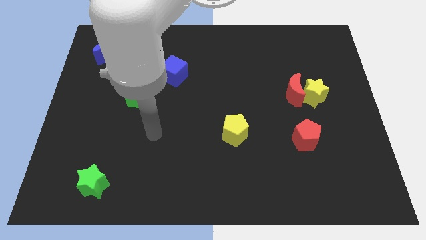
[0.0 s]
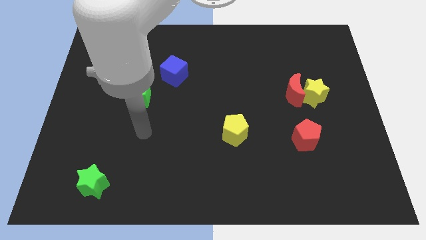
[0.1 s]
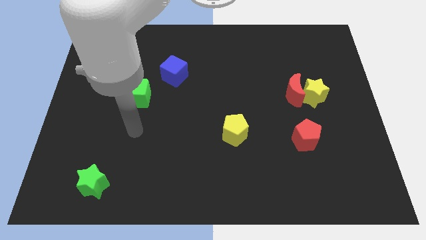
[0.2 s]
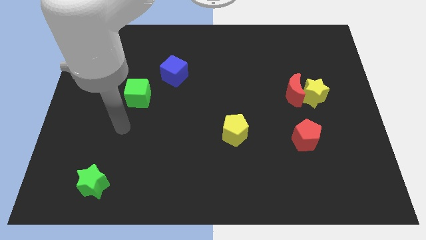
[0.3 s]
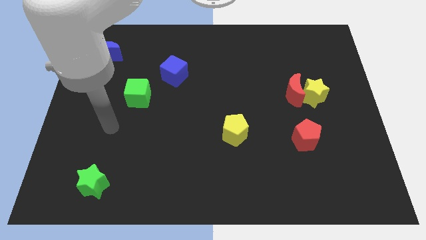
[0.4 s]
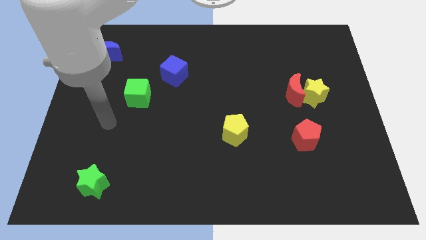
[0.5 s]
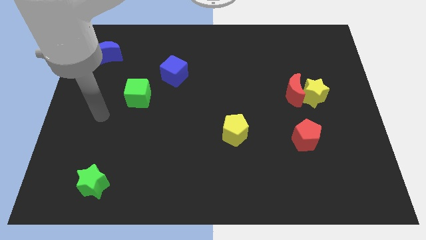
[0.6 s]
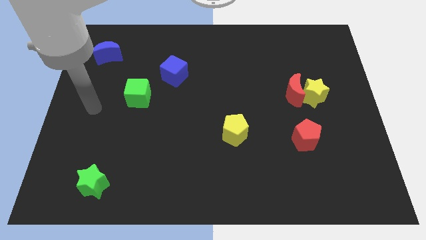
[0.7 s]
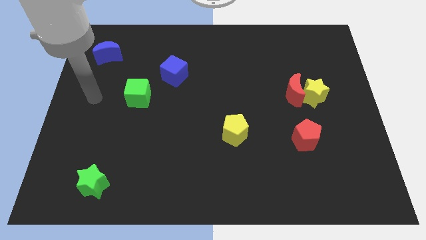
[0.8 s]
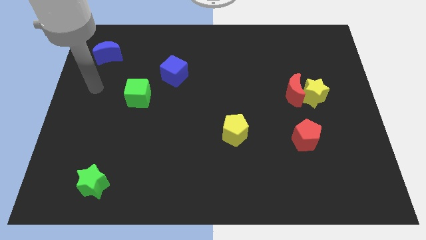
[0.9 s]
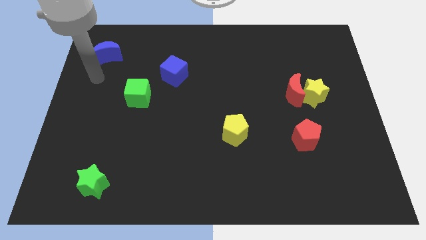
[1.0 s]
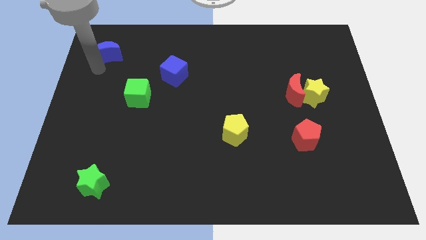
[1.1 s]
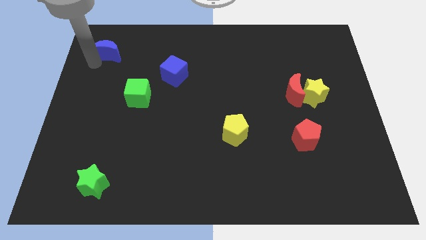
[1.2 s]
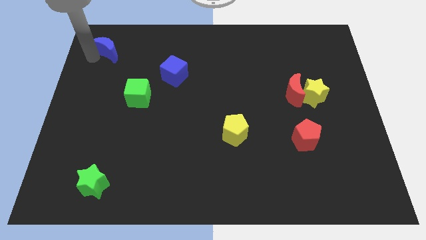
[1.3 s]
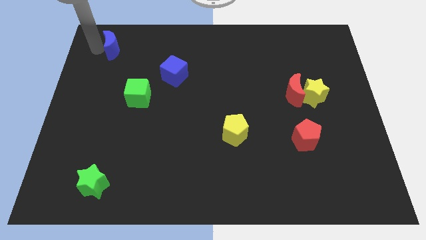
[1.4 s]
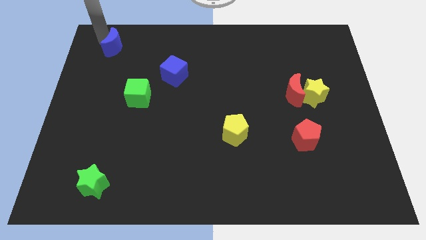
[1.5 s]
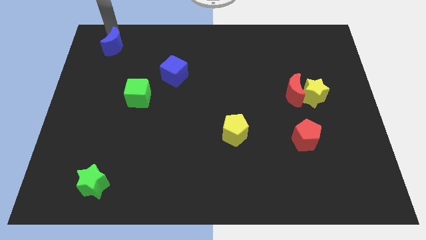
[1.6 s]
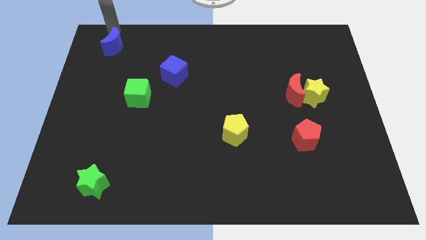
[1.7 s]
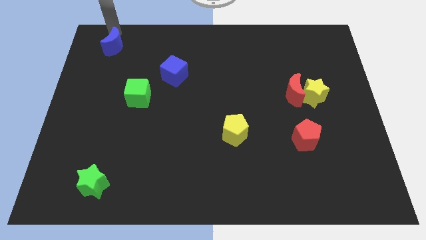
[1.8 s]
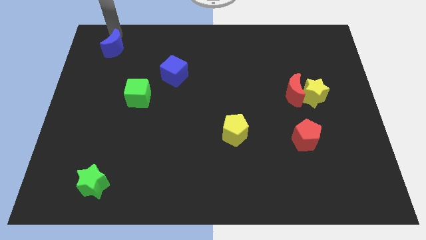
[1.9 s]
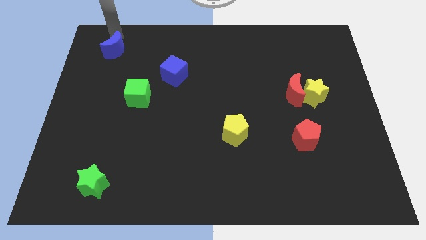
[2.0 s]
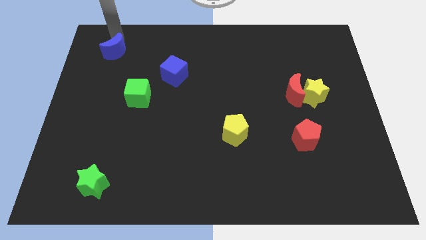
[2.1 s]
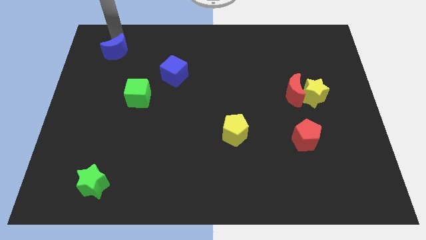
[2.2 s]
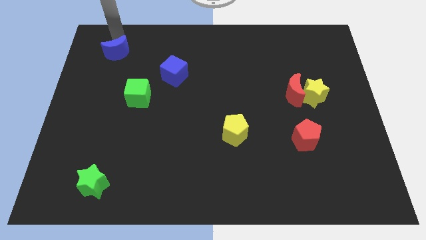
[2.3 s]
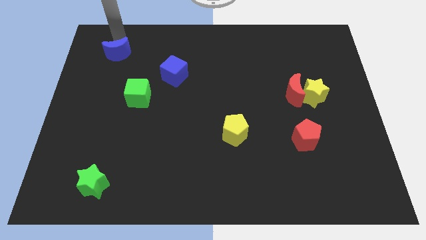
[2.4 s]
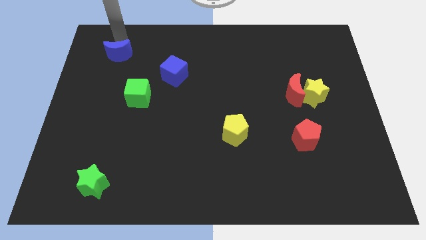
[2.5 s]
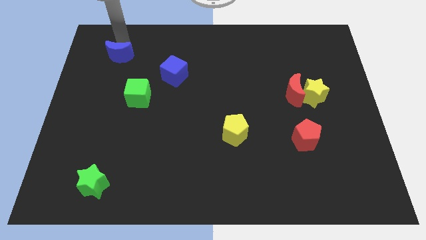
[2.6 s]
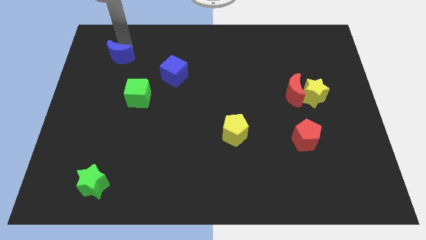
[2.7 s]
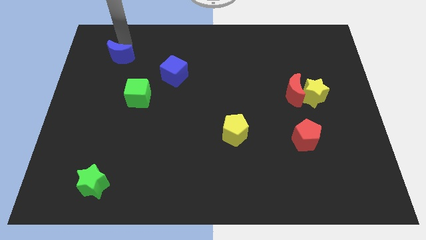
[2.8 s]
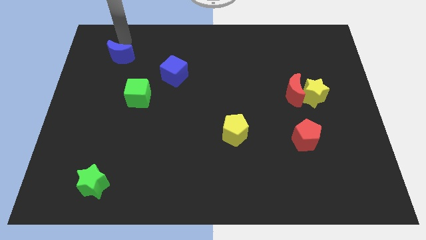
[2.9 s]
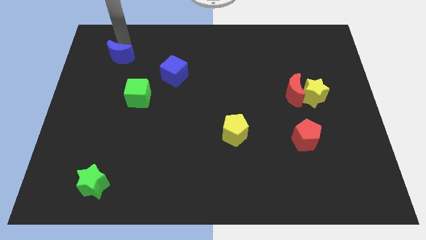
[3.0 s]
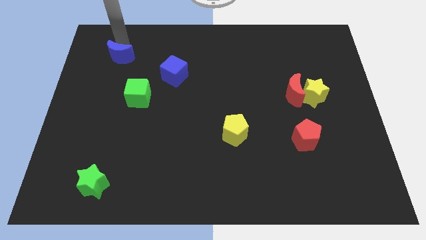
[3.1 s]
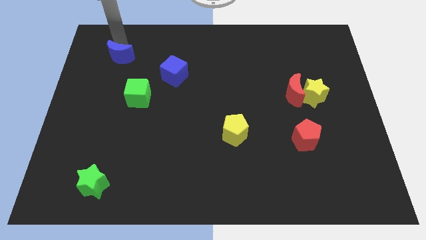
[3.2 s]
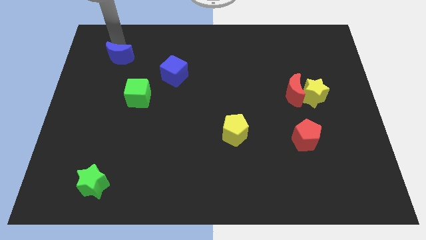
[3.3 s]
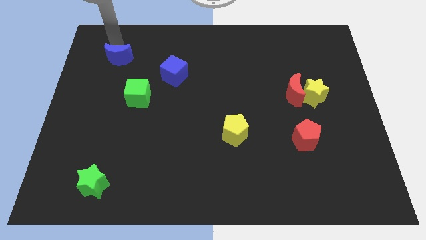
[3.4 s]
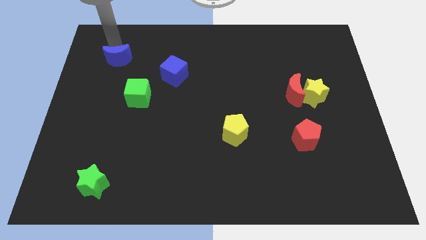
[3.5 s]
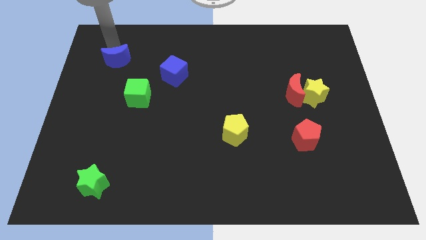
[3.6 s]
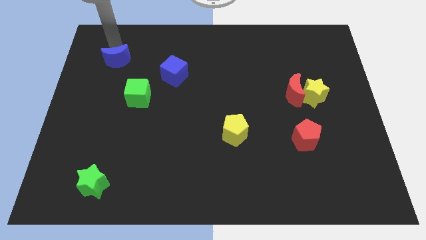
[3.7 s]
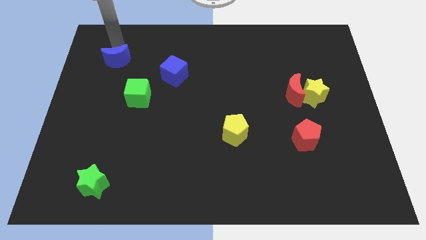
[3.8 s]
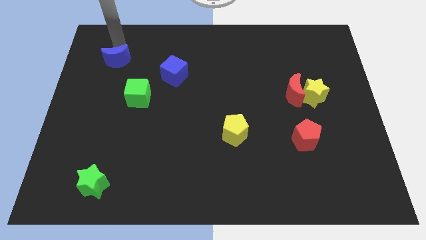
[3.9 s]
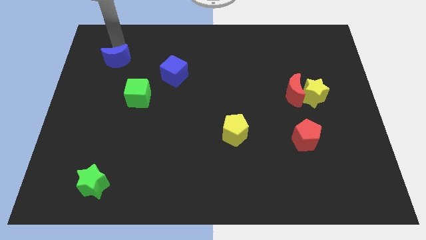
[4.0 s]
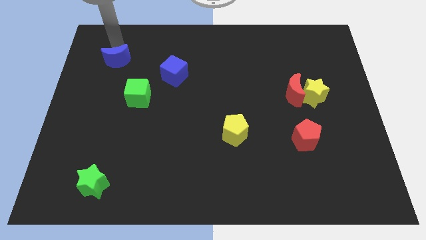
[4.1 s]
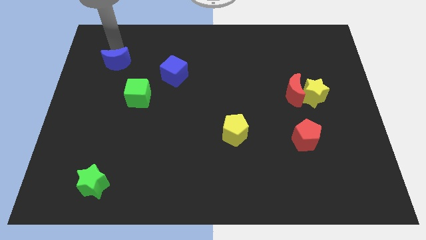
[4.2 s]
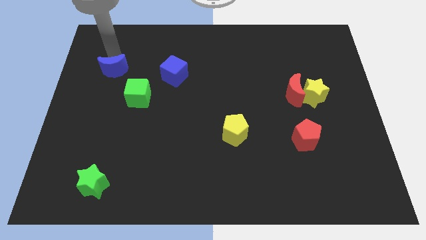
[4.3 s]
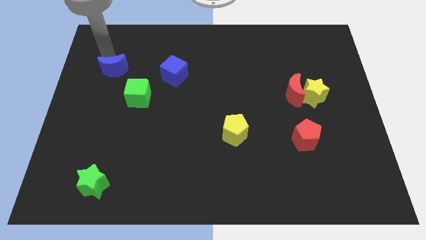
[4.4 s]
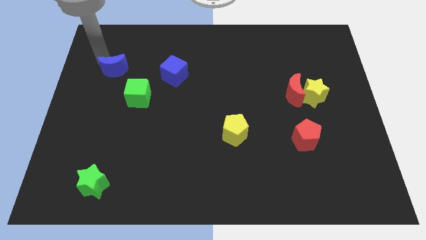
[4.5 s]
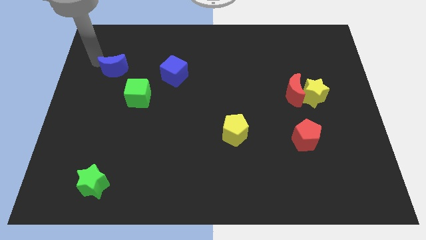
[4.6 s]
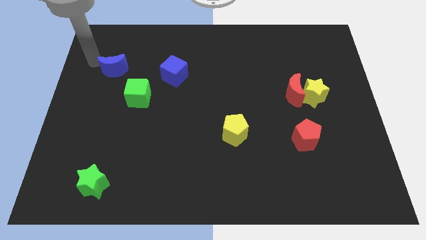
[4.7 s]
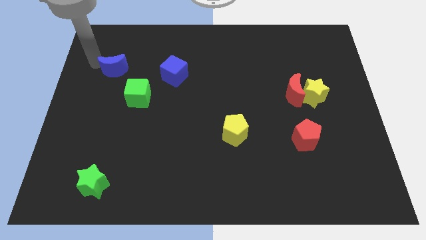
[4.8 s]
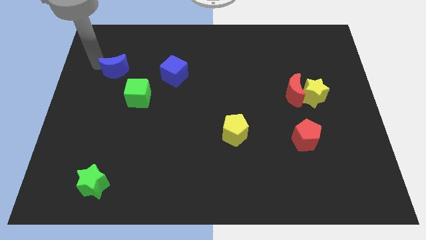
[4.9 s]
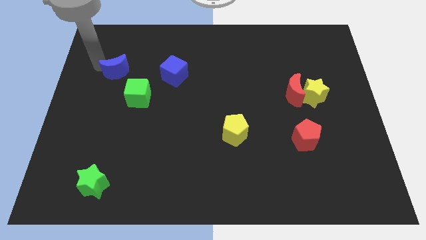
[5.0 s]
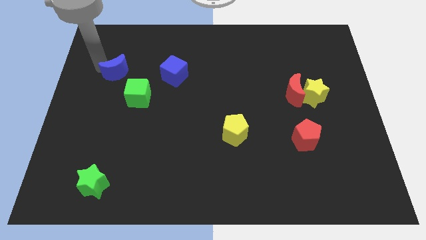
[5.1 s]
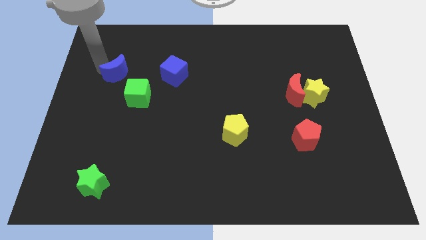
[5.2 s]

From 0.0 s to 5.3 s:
push the blue moon a little down and to the right

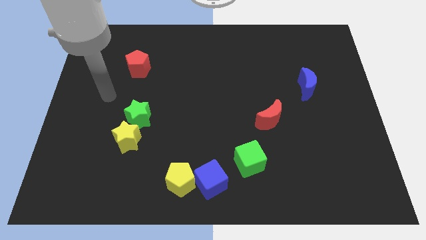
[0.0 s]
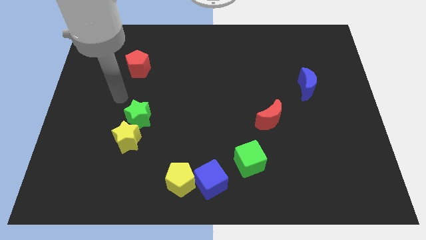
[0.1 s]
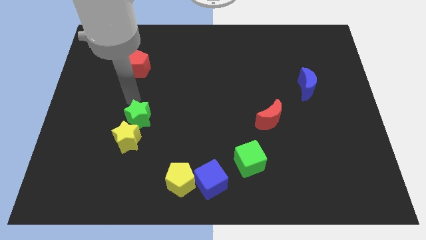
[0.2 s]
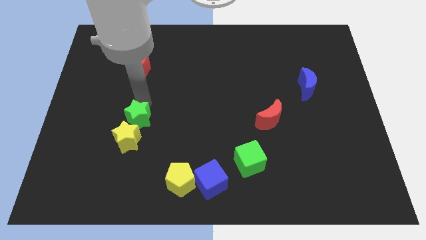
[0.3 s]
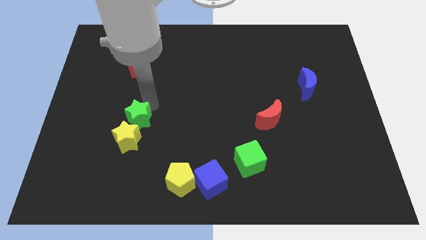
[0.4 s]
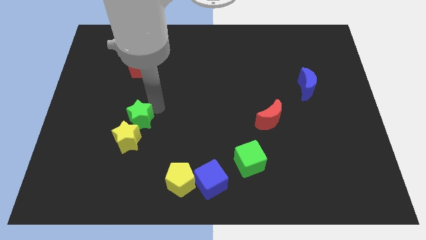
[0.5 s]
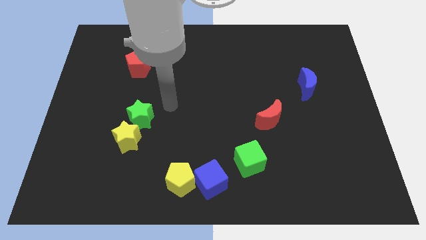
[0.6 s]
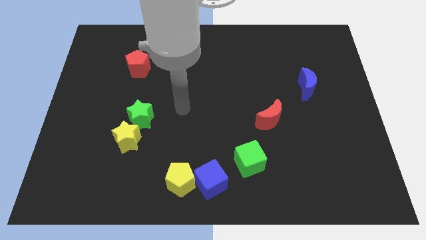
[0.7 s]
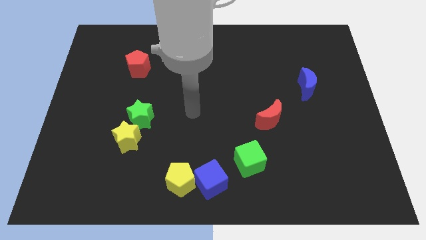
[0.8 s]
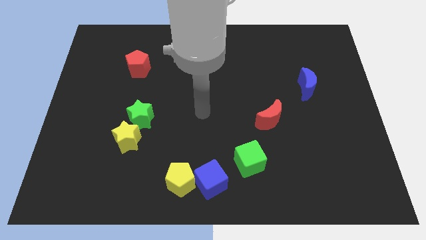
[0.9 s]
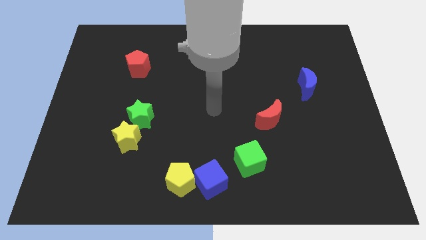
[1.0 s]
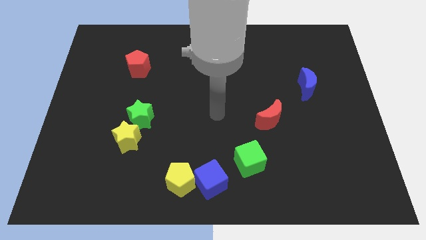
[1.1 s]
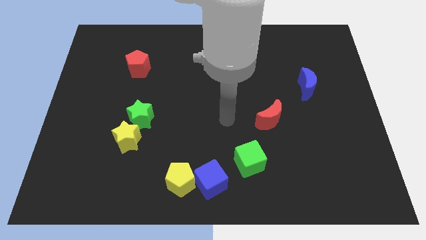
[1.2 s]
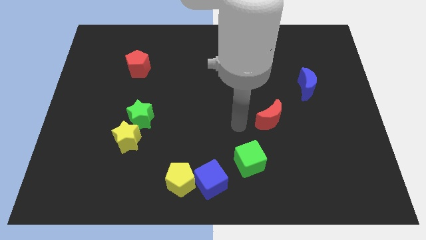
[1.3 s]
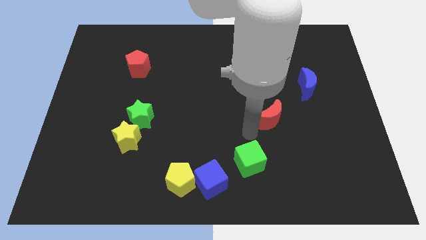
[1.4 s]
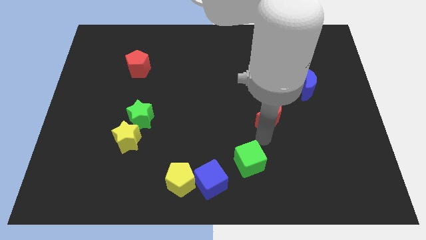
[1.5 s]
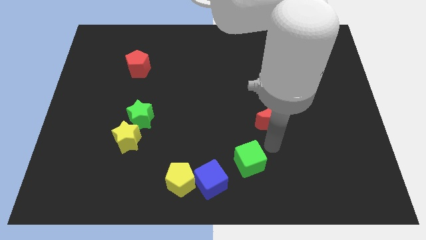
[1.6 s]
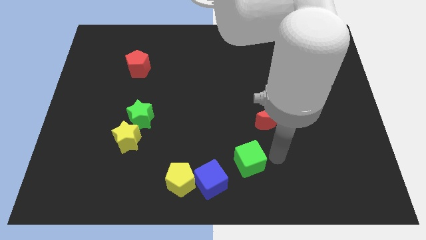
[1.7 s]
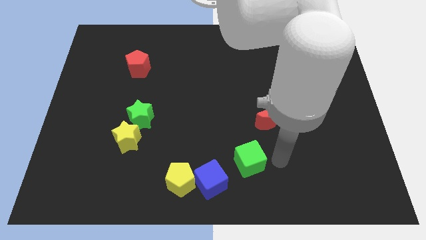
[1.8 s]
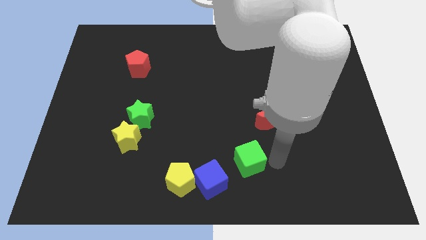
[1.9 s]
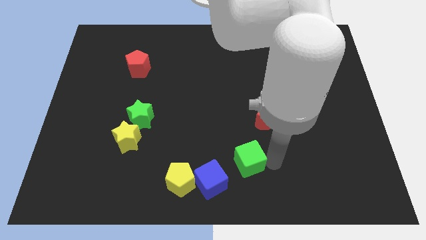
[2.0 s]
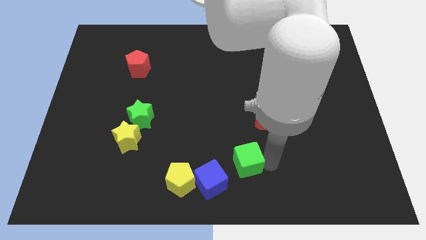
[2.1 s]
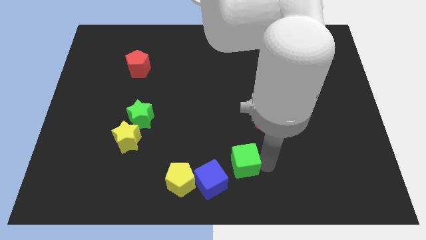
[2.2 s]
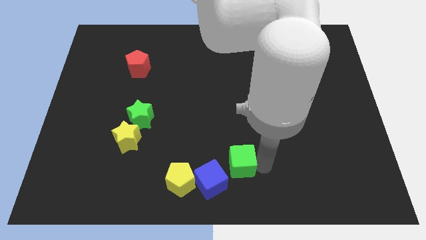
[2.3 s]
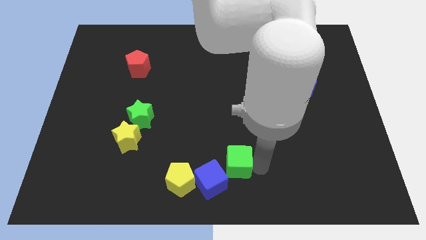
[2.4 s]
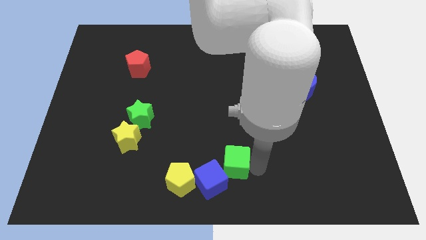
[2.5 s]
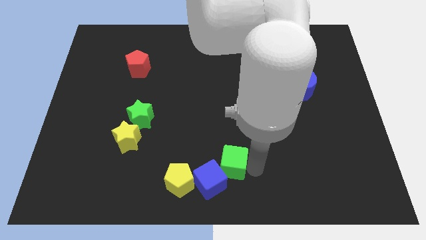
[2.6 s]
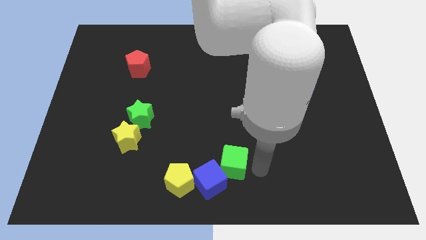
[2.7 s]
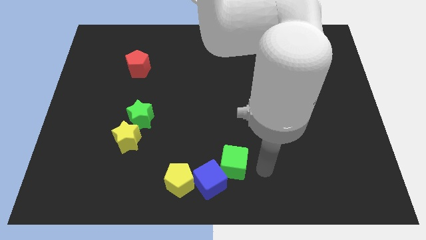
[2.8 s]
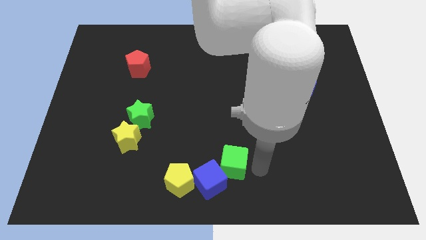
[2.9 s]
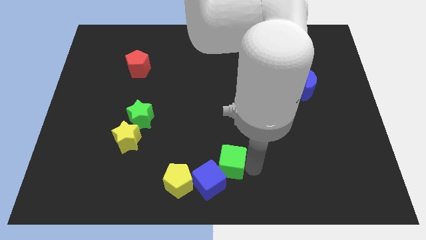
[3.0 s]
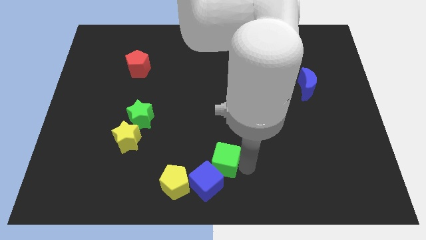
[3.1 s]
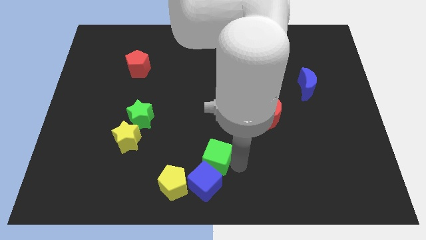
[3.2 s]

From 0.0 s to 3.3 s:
slightly move the green cube left
